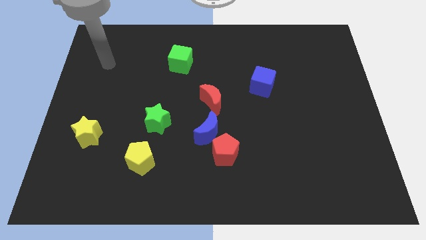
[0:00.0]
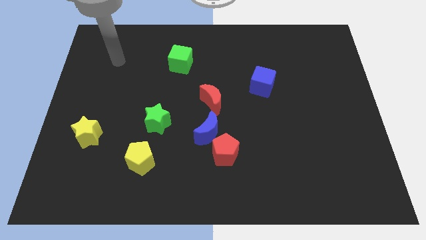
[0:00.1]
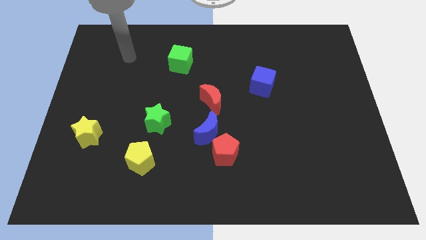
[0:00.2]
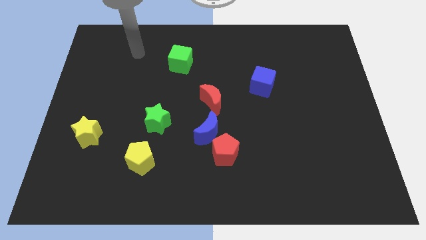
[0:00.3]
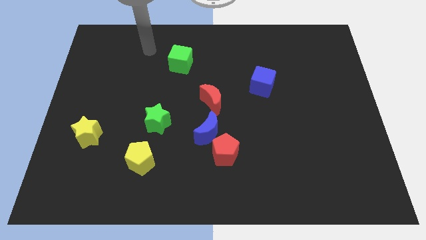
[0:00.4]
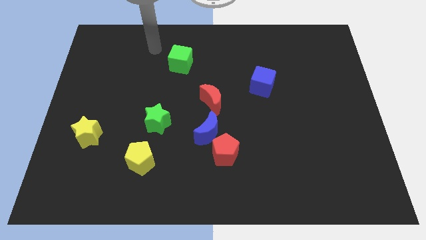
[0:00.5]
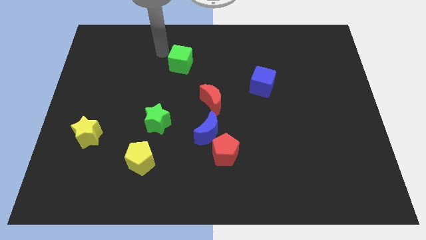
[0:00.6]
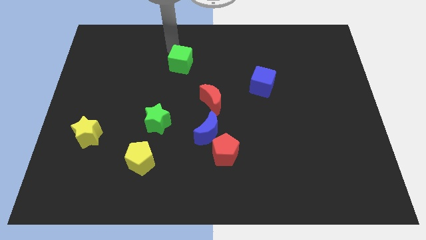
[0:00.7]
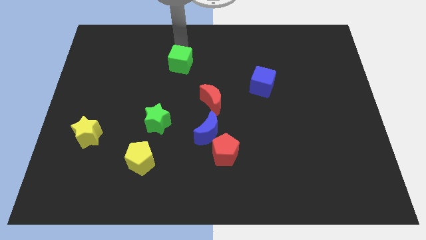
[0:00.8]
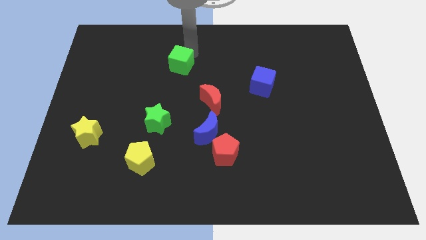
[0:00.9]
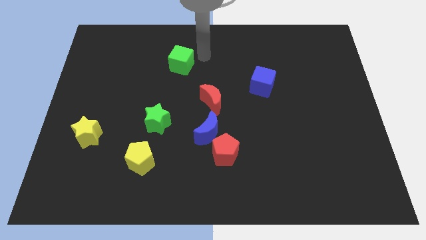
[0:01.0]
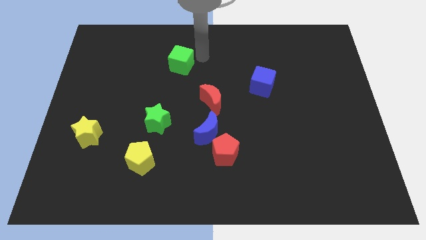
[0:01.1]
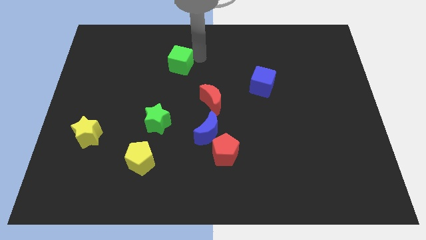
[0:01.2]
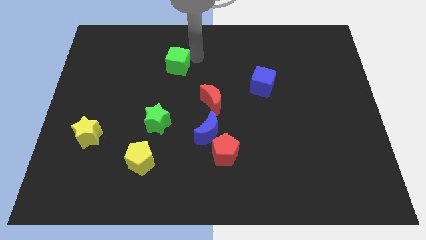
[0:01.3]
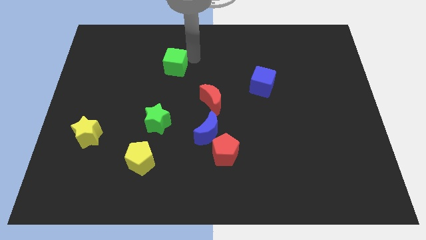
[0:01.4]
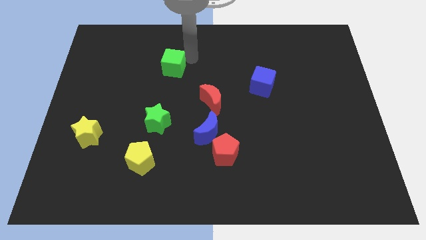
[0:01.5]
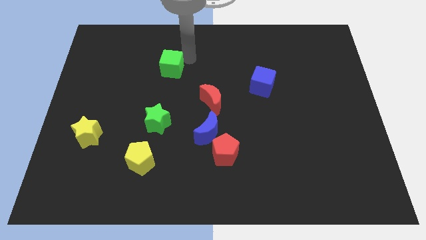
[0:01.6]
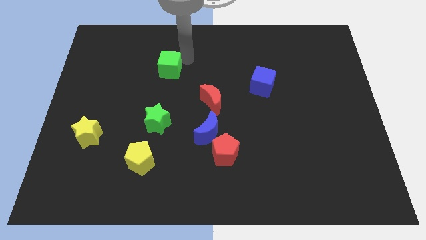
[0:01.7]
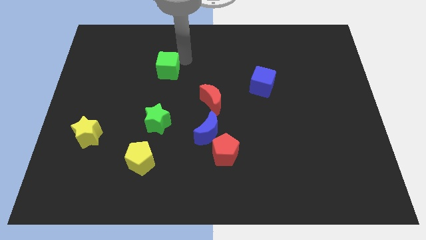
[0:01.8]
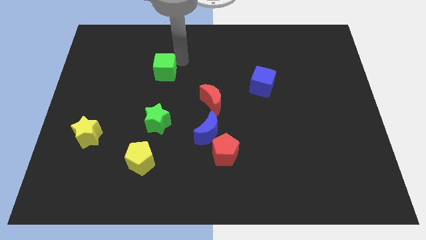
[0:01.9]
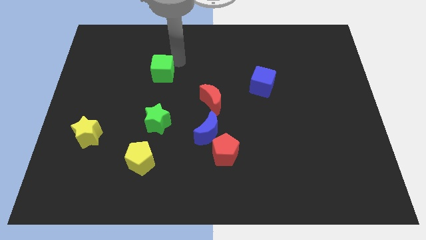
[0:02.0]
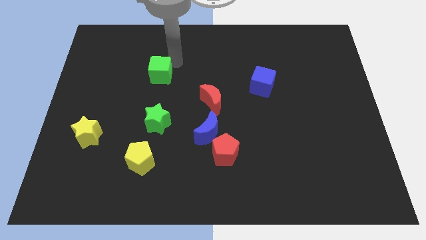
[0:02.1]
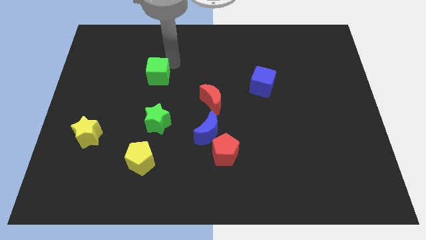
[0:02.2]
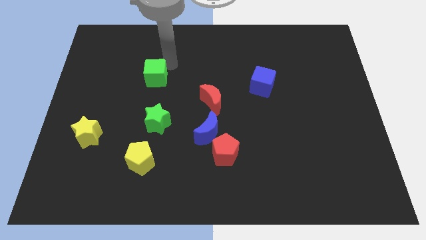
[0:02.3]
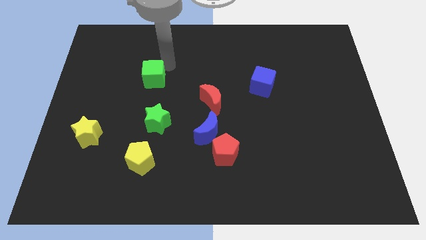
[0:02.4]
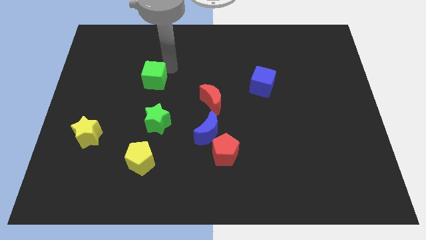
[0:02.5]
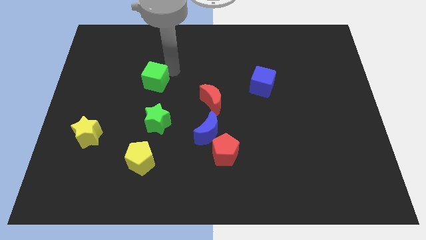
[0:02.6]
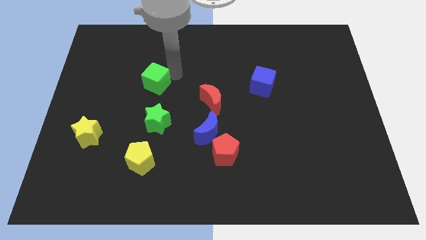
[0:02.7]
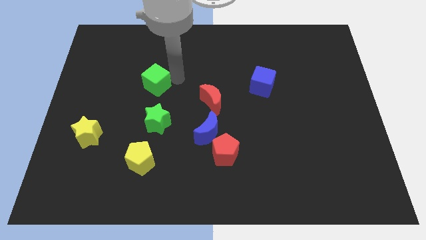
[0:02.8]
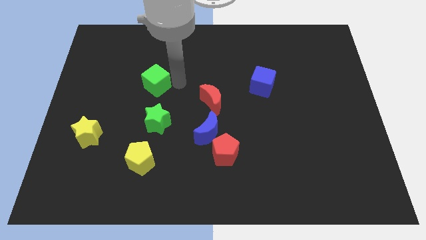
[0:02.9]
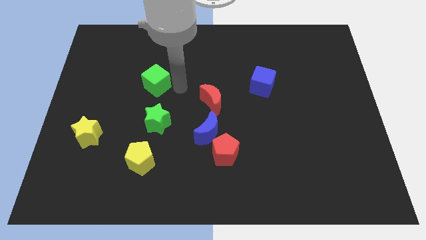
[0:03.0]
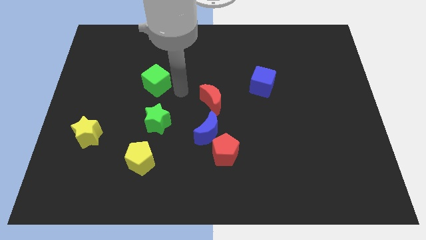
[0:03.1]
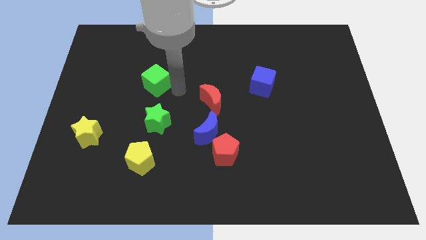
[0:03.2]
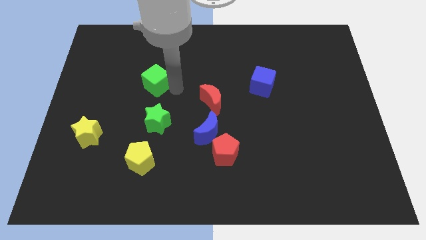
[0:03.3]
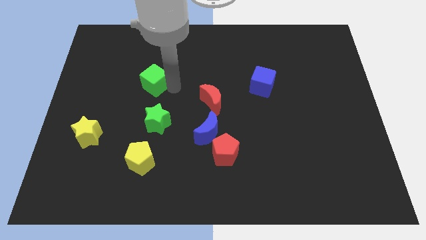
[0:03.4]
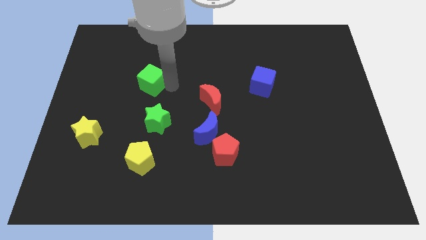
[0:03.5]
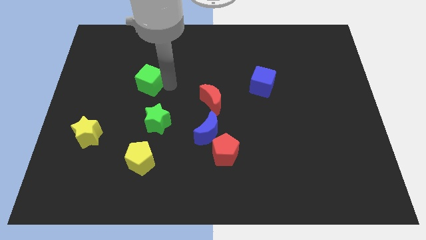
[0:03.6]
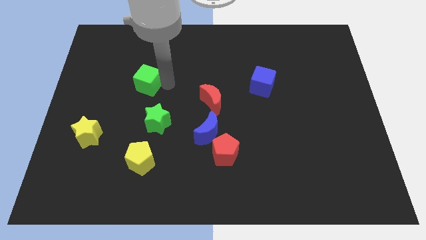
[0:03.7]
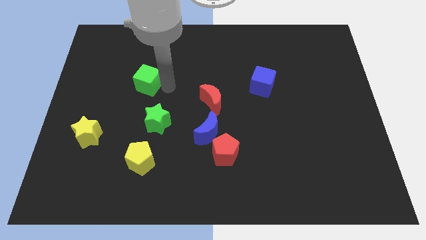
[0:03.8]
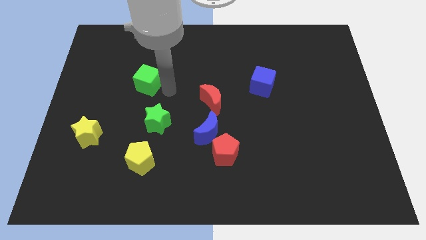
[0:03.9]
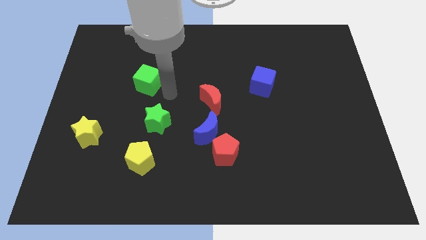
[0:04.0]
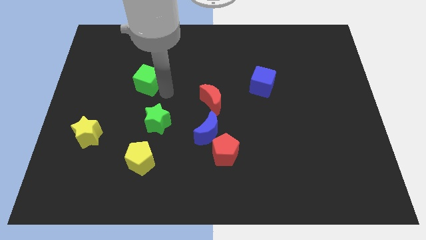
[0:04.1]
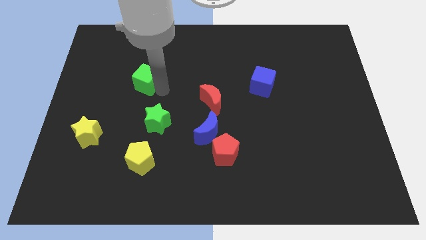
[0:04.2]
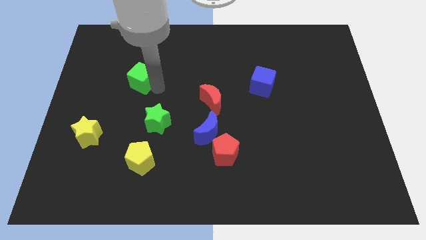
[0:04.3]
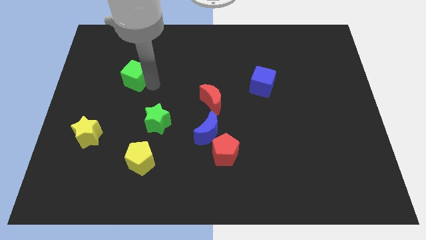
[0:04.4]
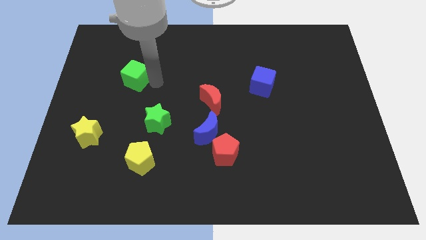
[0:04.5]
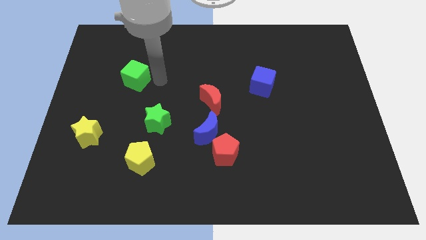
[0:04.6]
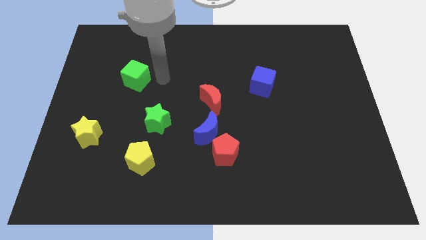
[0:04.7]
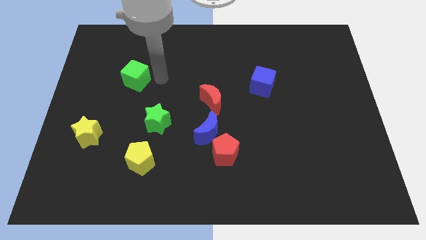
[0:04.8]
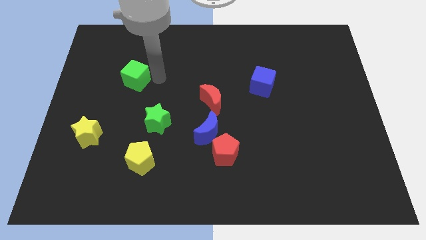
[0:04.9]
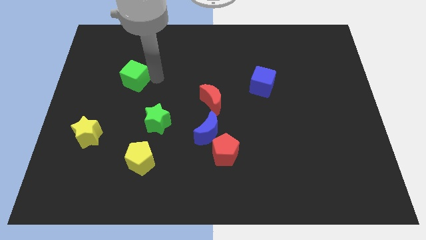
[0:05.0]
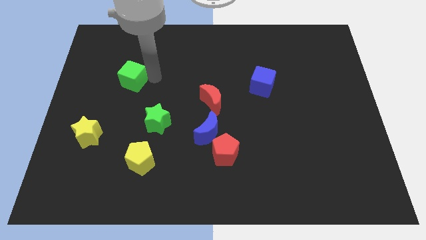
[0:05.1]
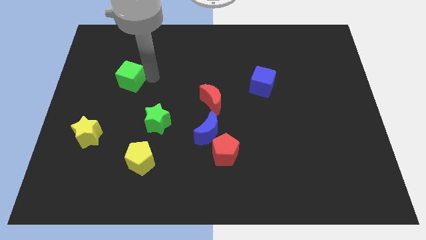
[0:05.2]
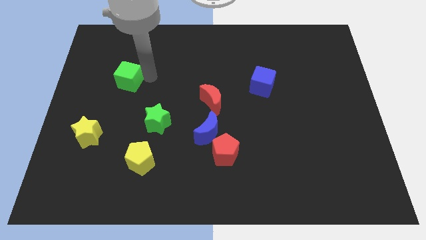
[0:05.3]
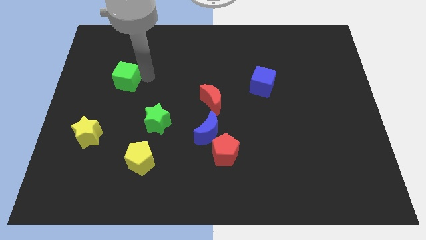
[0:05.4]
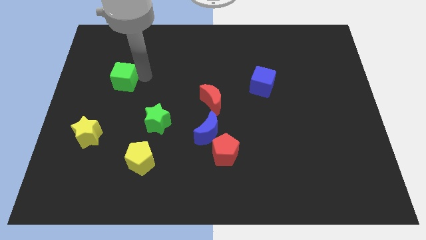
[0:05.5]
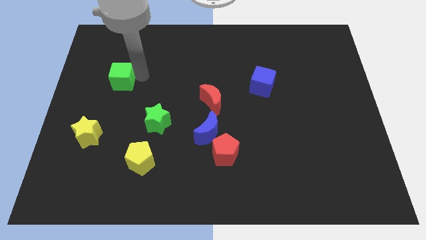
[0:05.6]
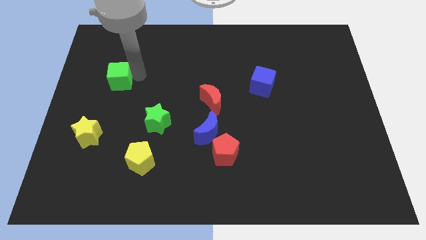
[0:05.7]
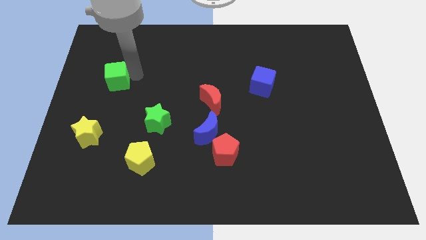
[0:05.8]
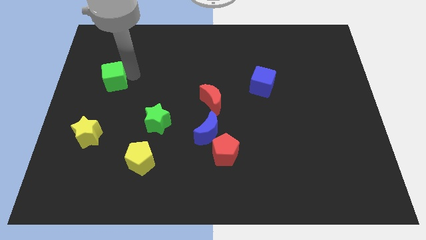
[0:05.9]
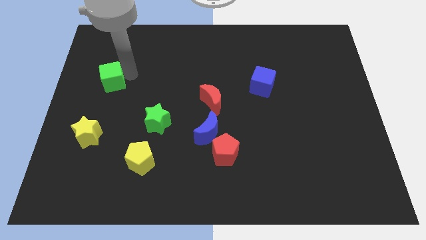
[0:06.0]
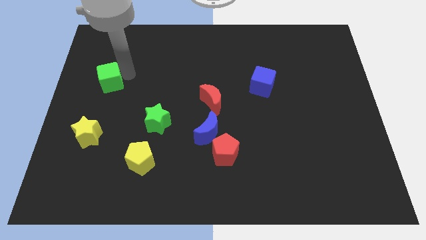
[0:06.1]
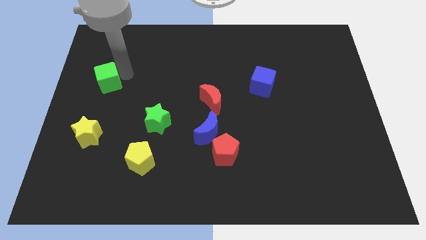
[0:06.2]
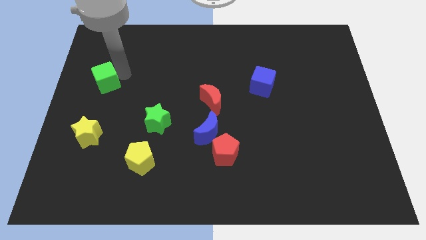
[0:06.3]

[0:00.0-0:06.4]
put the green cube to the center left

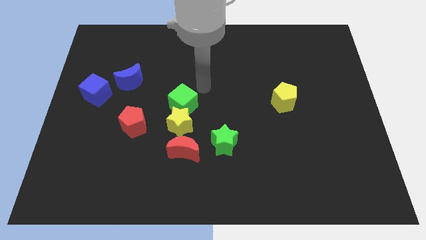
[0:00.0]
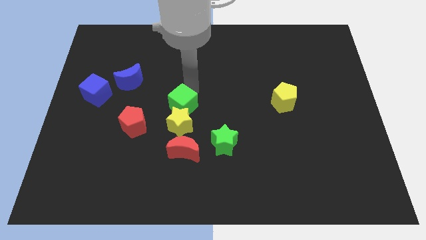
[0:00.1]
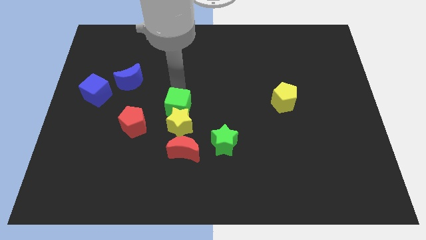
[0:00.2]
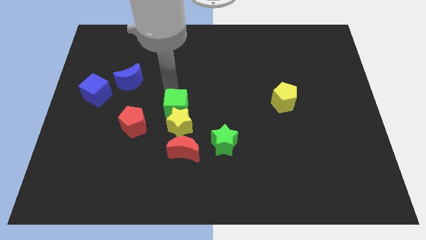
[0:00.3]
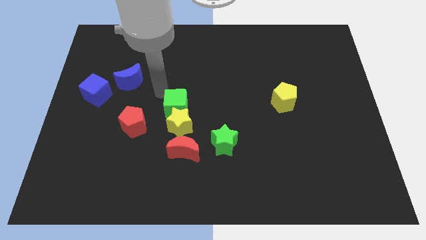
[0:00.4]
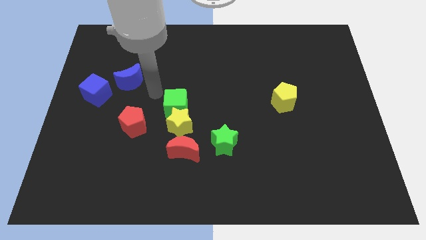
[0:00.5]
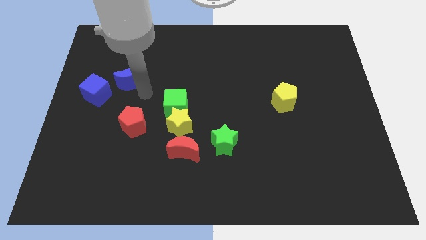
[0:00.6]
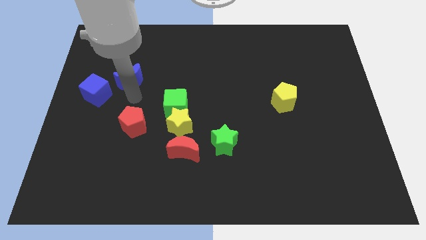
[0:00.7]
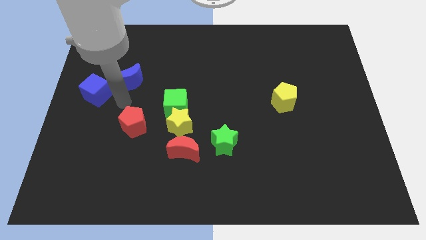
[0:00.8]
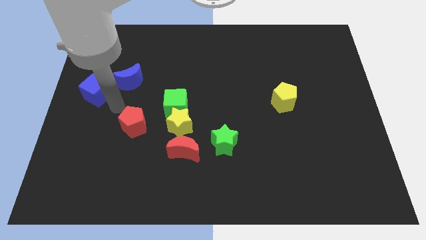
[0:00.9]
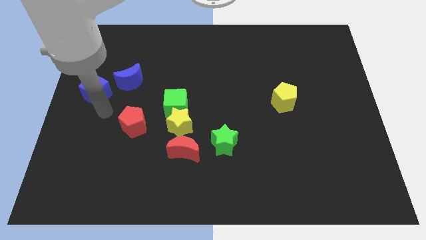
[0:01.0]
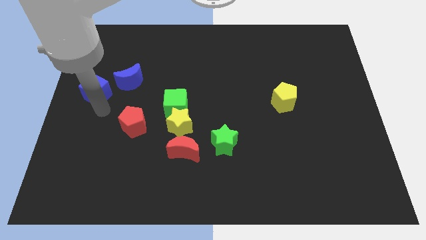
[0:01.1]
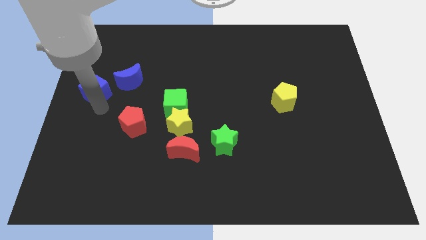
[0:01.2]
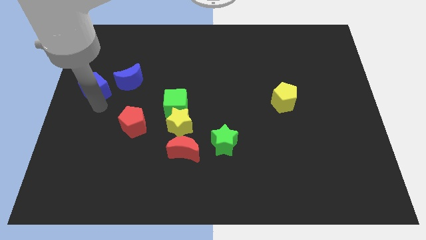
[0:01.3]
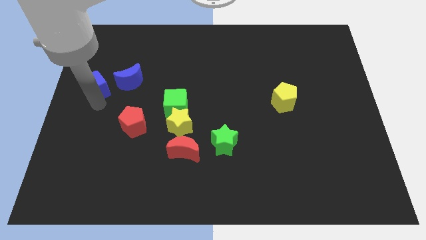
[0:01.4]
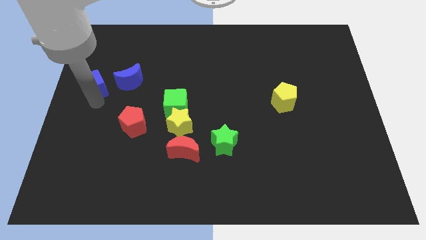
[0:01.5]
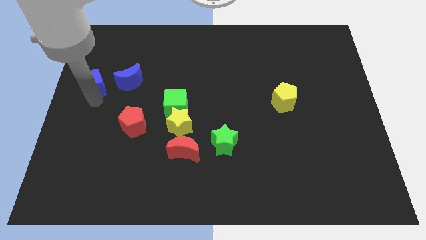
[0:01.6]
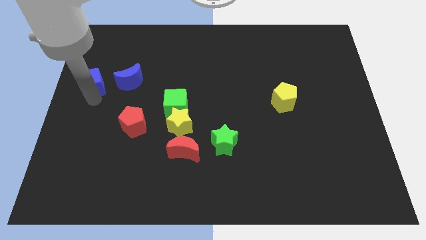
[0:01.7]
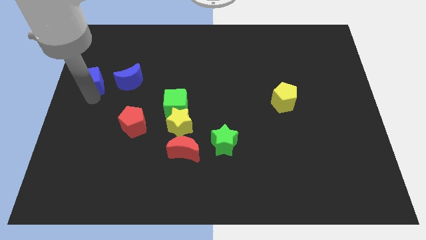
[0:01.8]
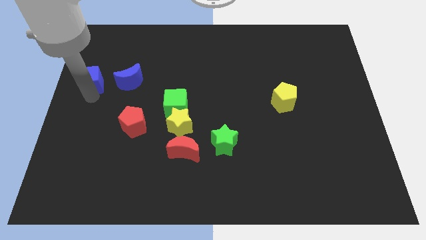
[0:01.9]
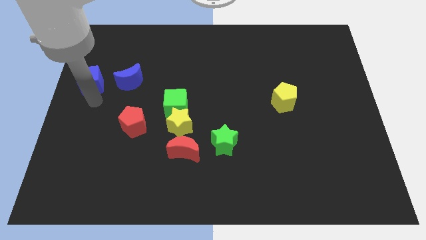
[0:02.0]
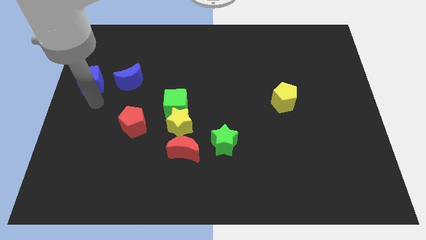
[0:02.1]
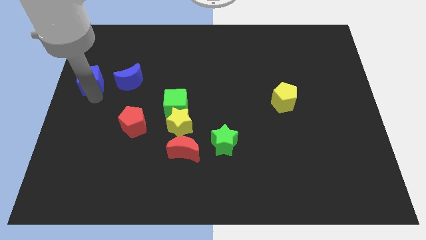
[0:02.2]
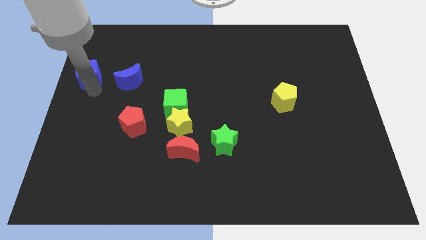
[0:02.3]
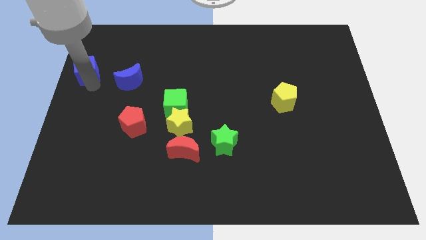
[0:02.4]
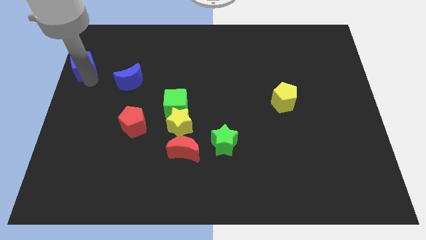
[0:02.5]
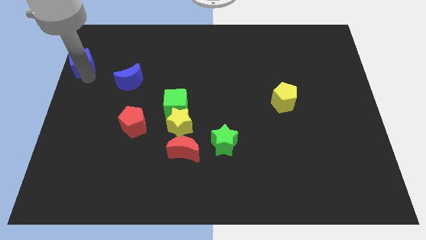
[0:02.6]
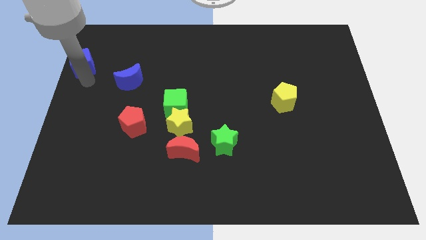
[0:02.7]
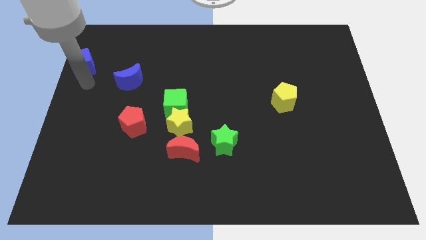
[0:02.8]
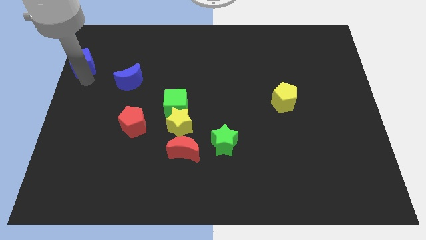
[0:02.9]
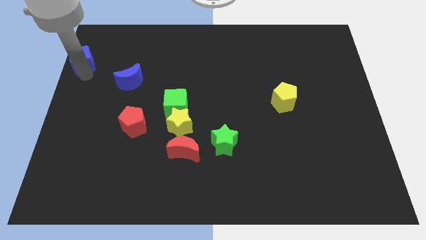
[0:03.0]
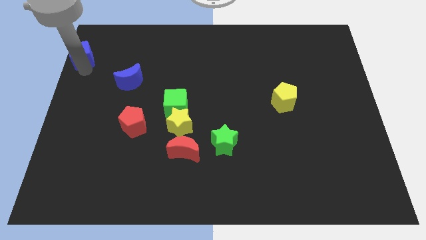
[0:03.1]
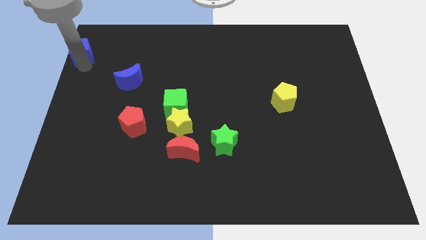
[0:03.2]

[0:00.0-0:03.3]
push the blue cube to the top left of the board
